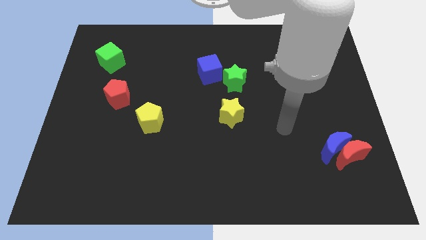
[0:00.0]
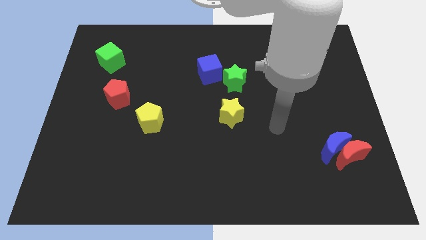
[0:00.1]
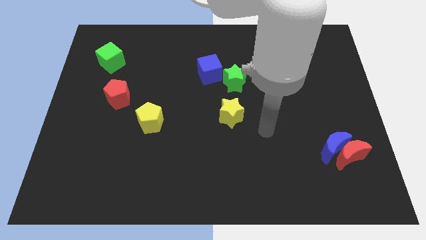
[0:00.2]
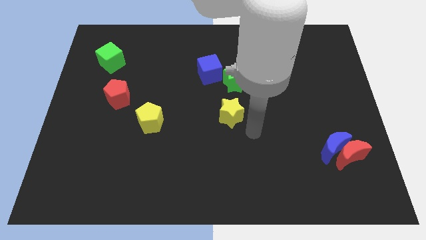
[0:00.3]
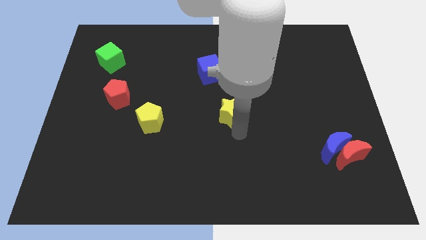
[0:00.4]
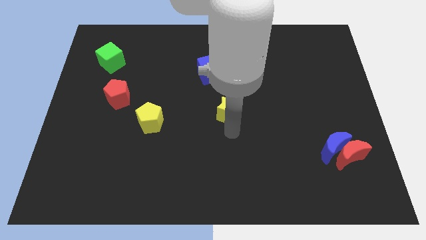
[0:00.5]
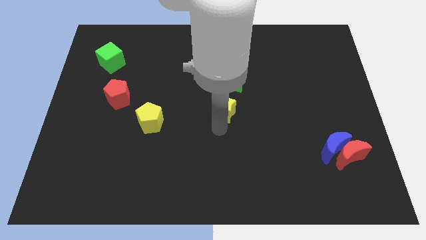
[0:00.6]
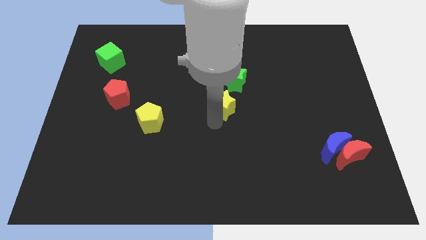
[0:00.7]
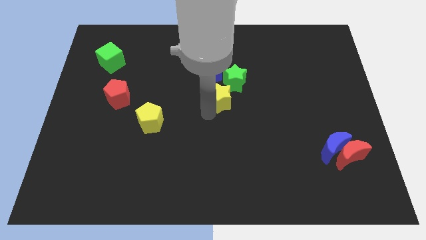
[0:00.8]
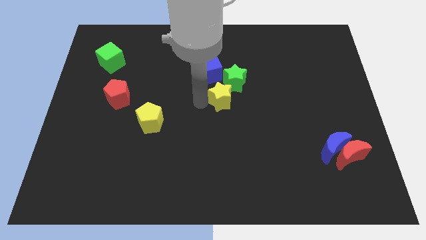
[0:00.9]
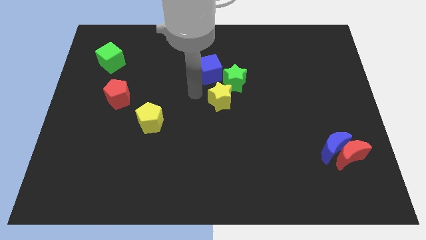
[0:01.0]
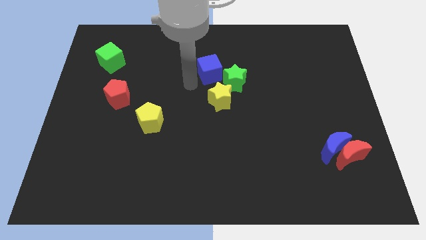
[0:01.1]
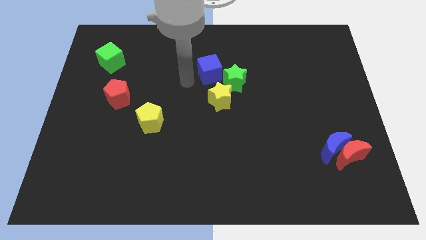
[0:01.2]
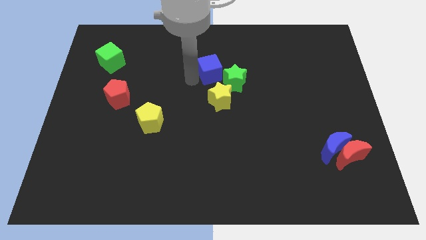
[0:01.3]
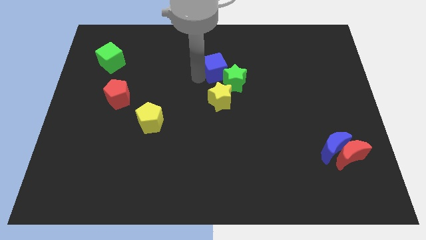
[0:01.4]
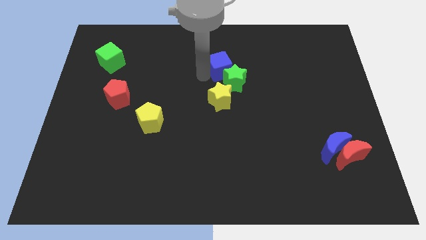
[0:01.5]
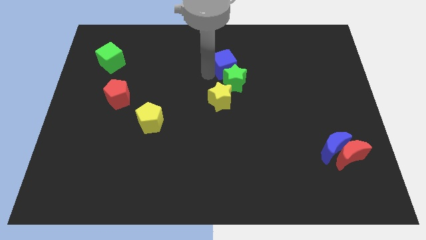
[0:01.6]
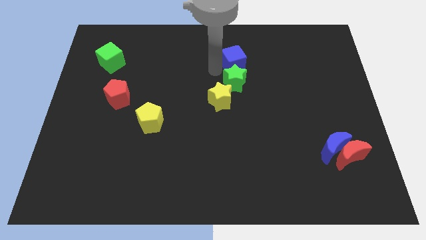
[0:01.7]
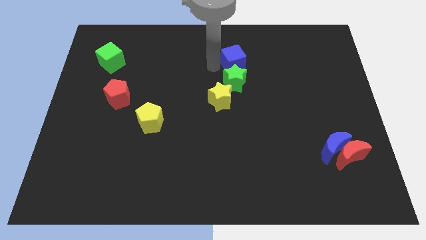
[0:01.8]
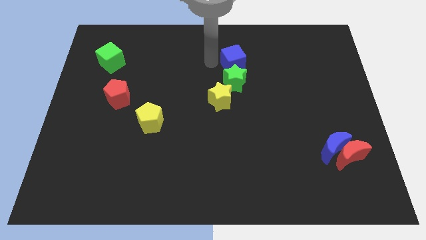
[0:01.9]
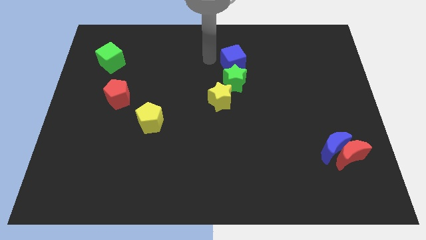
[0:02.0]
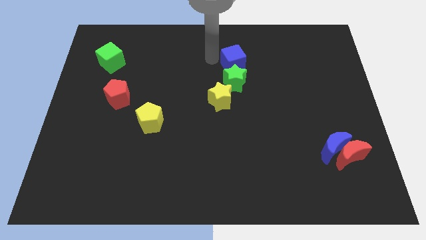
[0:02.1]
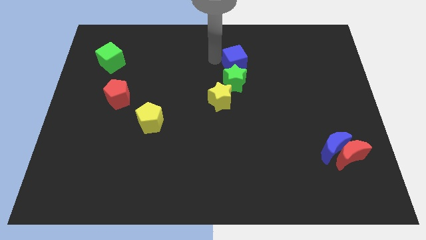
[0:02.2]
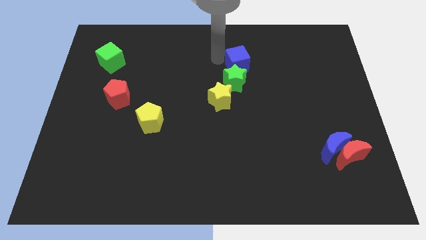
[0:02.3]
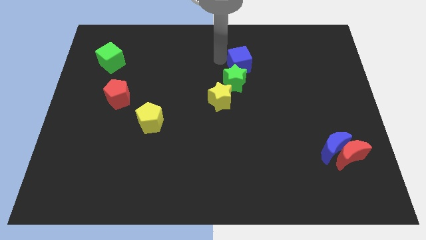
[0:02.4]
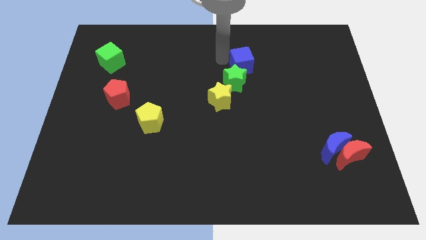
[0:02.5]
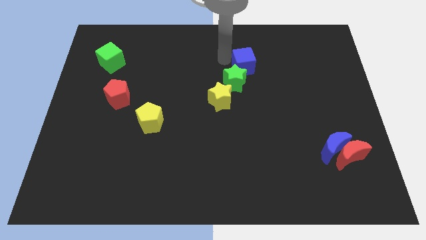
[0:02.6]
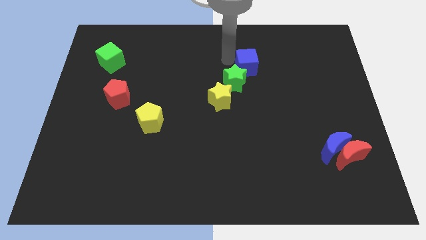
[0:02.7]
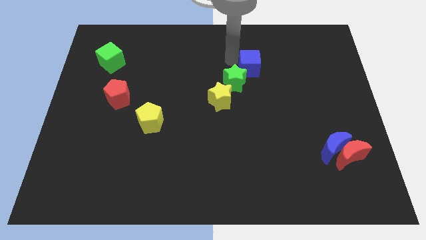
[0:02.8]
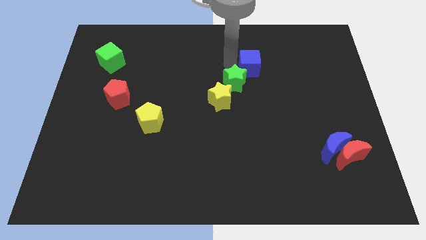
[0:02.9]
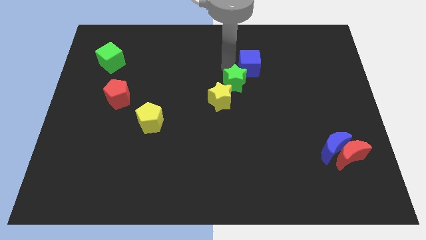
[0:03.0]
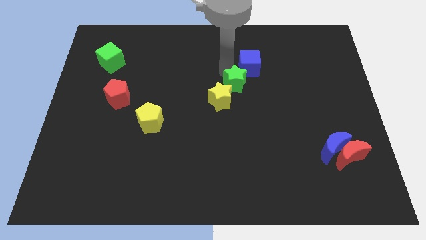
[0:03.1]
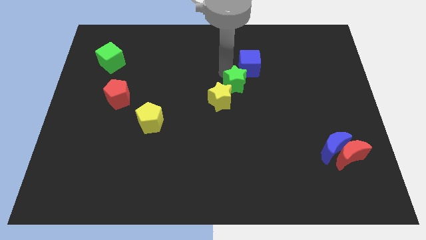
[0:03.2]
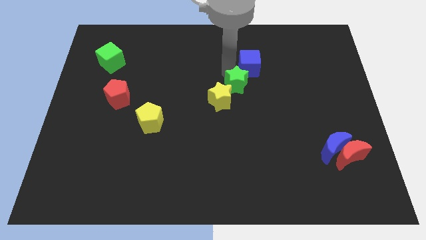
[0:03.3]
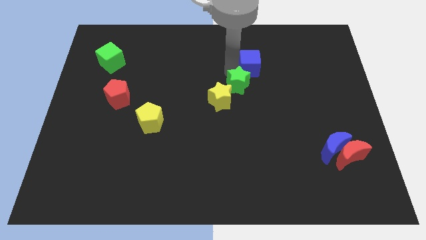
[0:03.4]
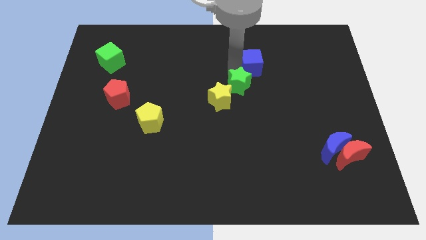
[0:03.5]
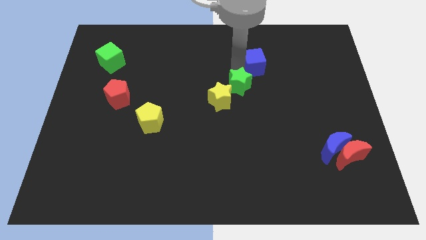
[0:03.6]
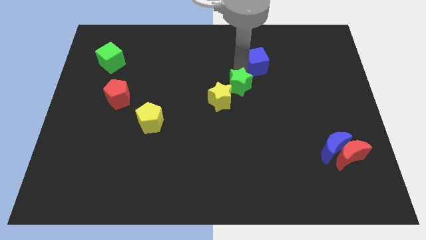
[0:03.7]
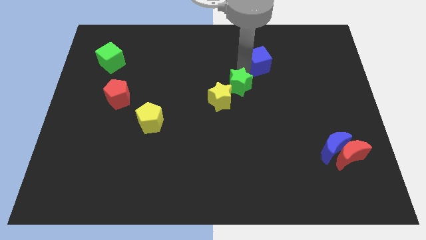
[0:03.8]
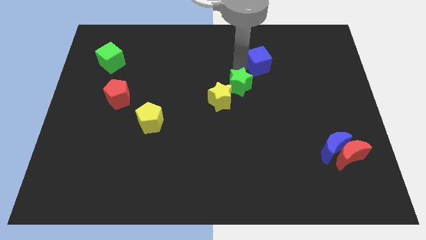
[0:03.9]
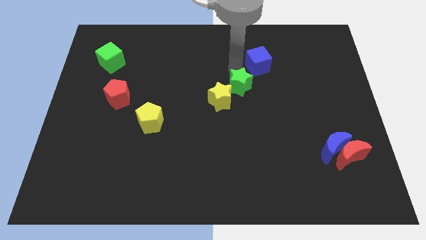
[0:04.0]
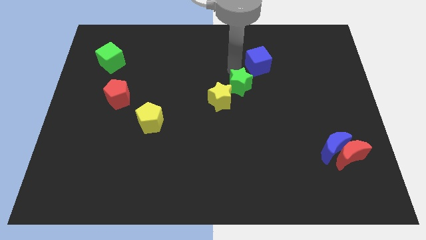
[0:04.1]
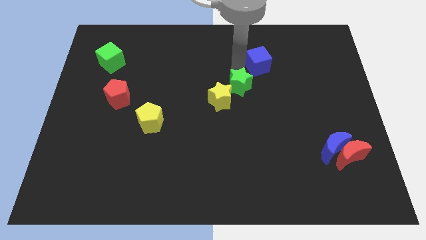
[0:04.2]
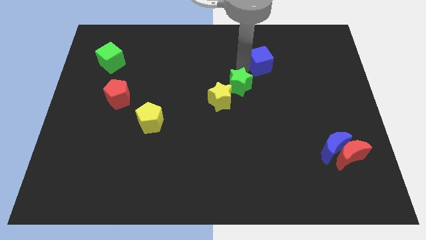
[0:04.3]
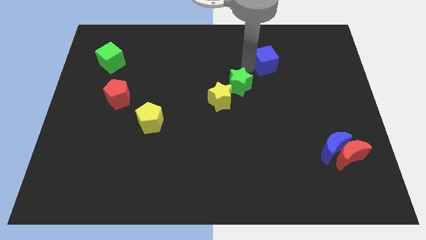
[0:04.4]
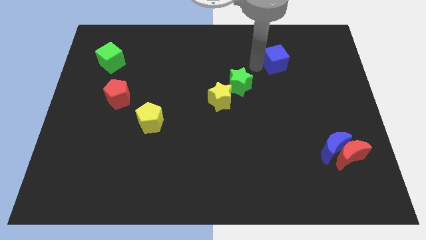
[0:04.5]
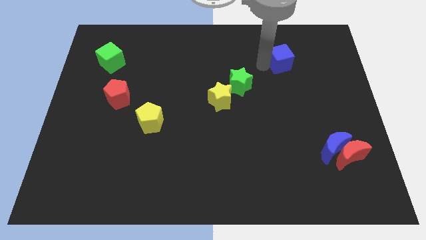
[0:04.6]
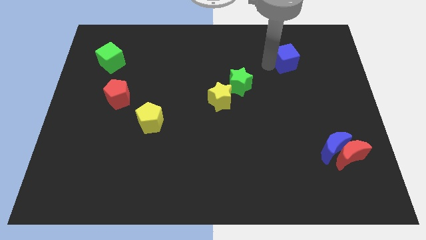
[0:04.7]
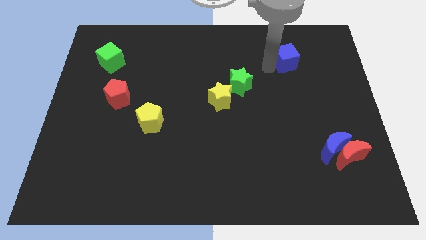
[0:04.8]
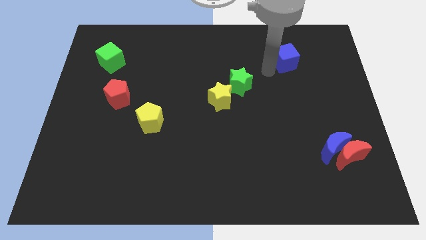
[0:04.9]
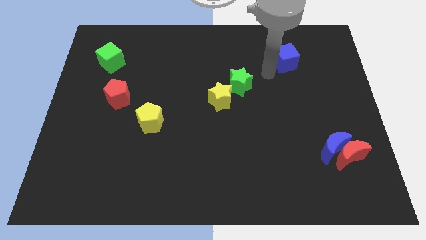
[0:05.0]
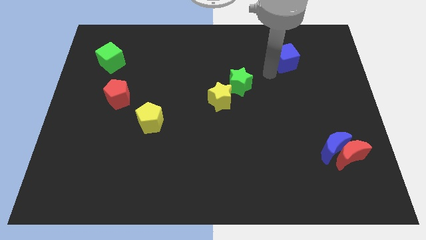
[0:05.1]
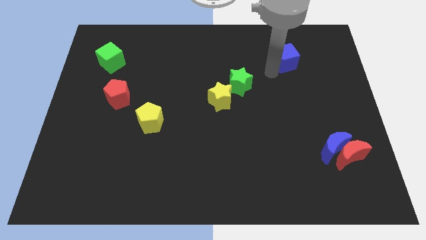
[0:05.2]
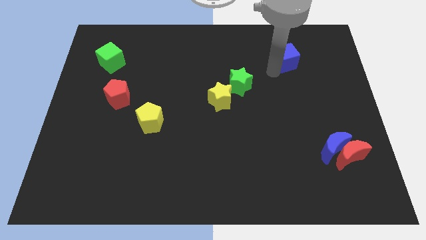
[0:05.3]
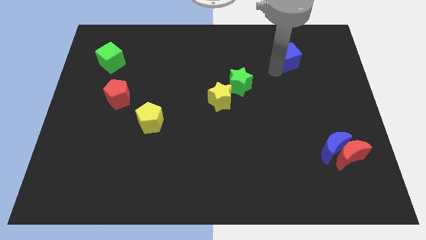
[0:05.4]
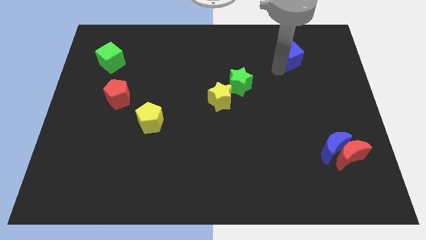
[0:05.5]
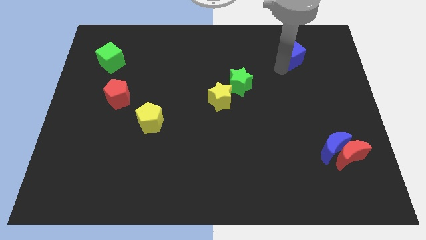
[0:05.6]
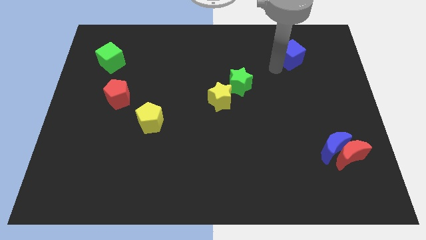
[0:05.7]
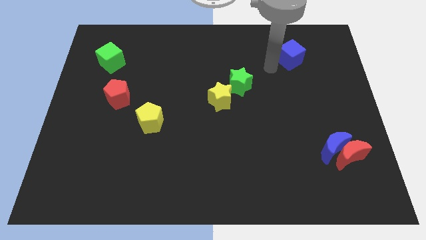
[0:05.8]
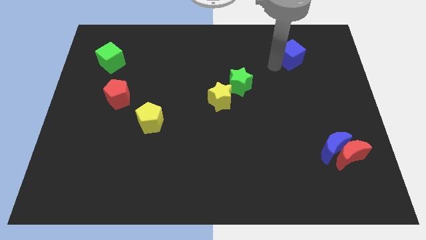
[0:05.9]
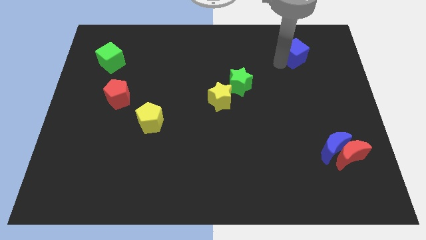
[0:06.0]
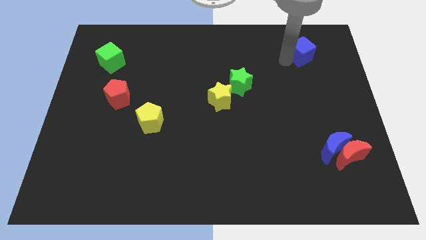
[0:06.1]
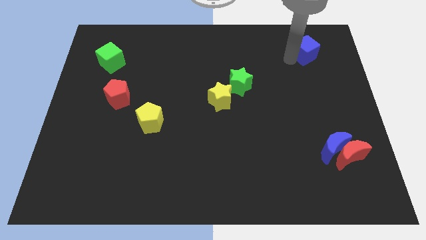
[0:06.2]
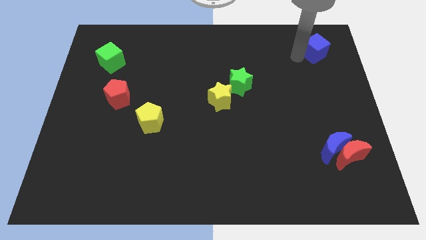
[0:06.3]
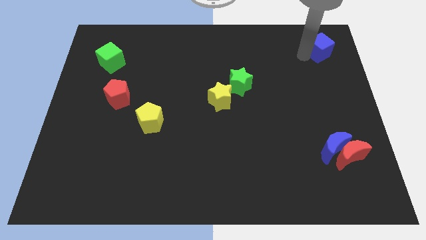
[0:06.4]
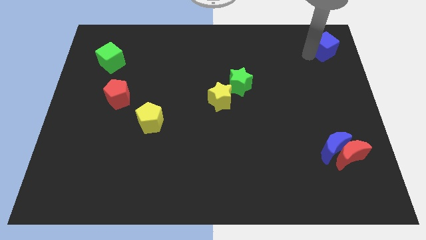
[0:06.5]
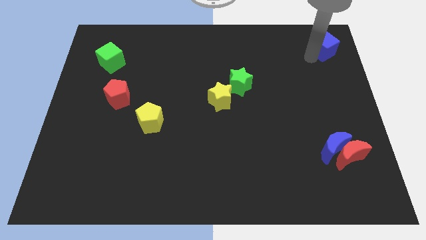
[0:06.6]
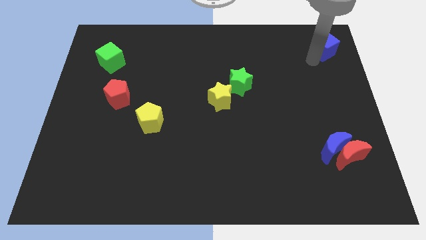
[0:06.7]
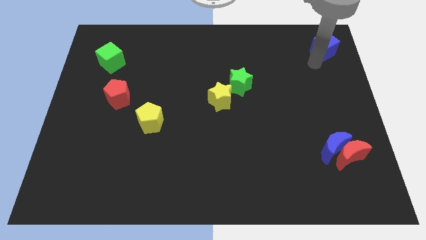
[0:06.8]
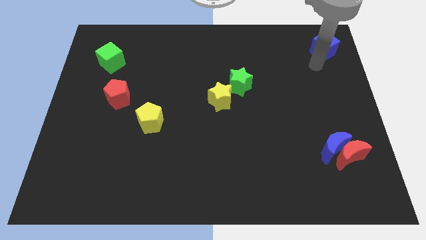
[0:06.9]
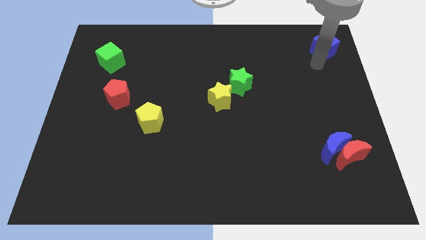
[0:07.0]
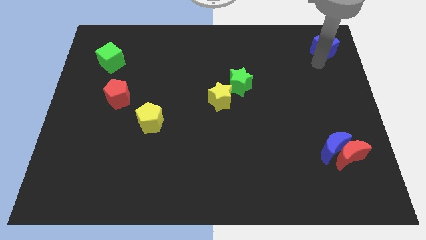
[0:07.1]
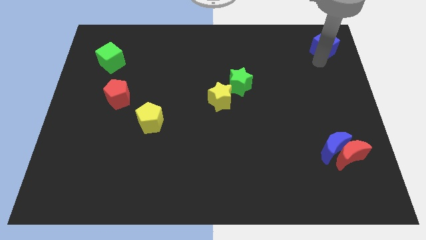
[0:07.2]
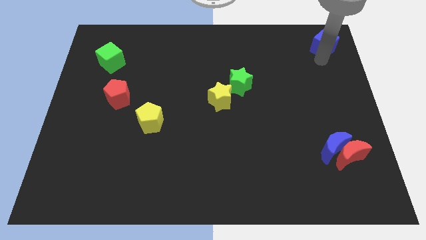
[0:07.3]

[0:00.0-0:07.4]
push the blue cube to the top right of the board
